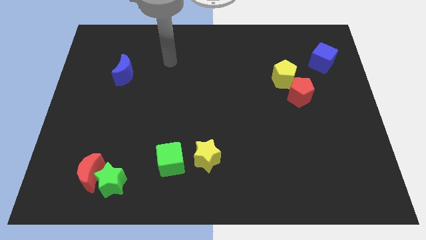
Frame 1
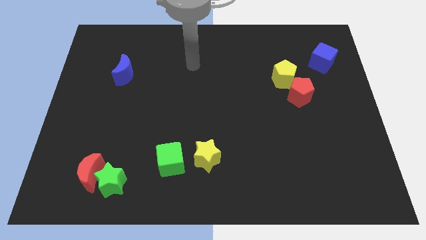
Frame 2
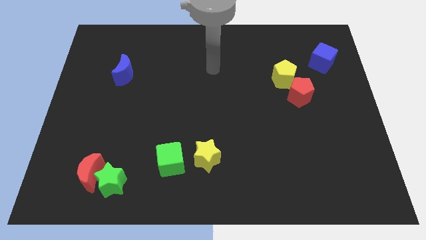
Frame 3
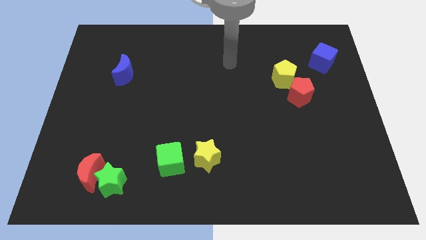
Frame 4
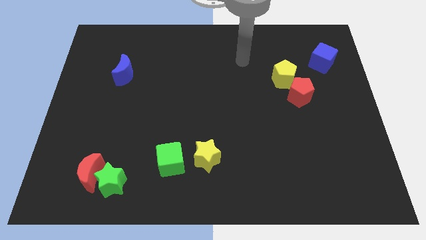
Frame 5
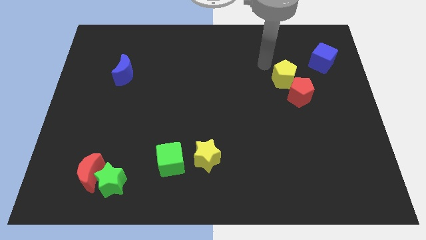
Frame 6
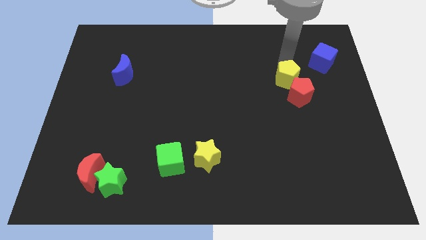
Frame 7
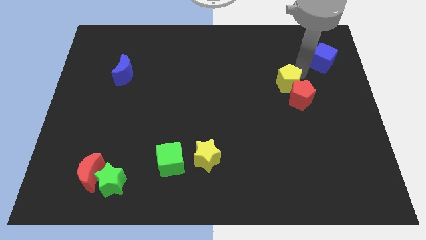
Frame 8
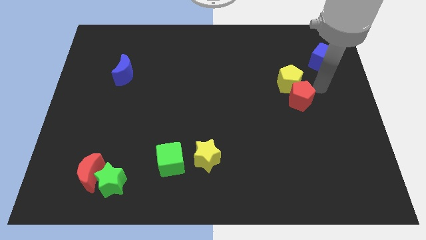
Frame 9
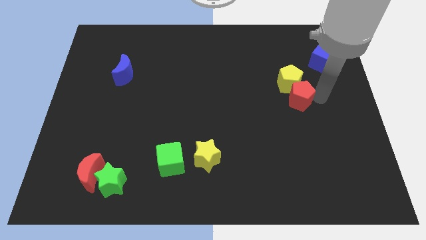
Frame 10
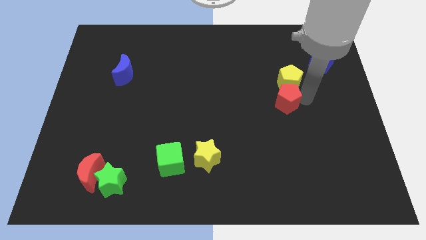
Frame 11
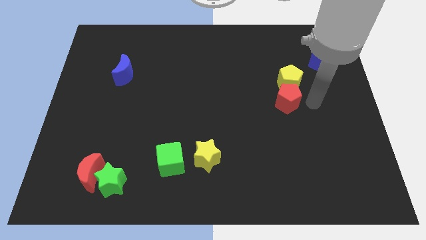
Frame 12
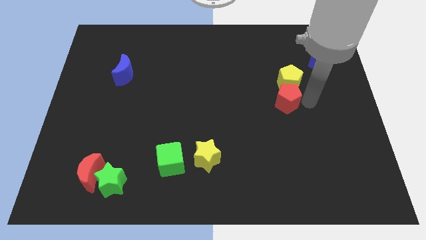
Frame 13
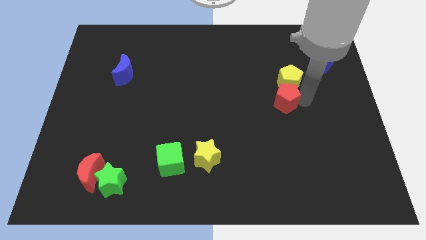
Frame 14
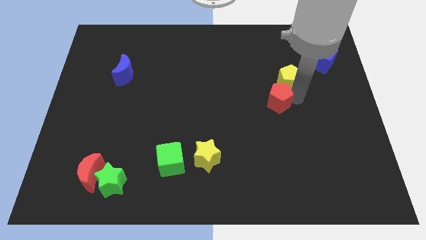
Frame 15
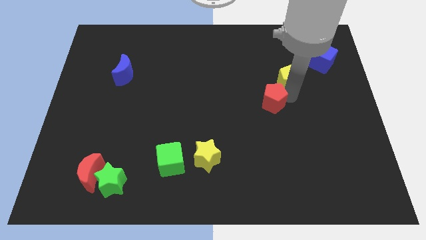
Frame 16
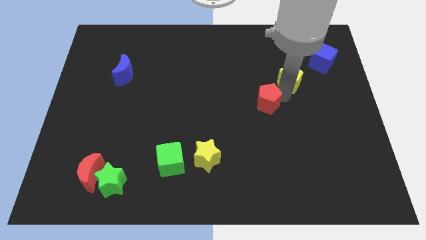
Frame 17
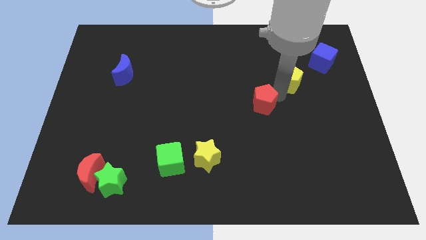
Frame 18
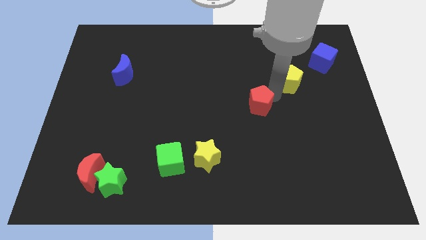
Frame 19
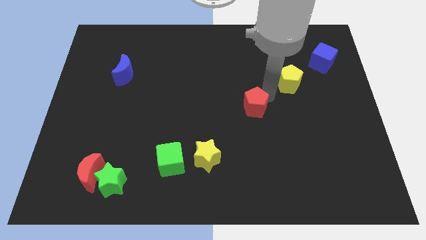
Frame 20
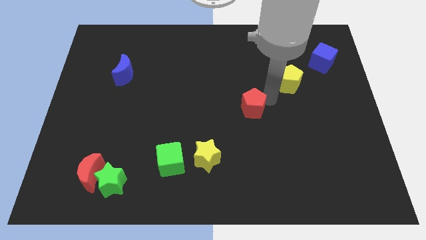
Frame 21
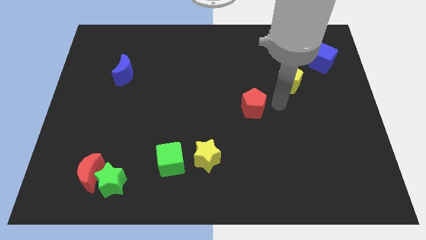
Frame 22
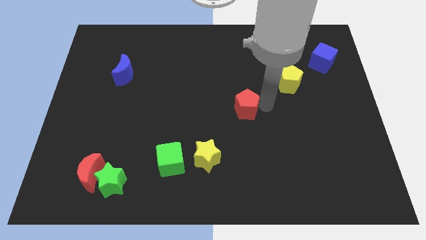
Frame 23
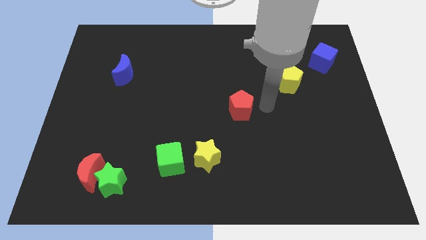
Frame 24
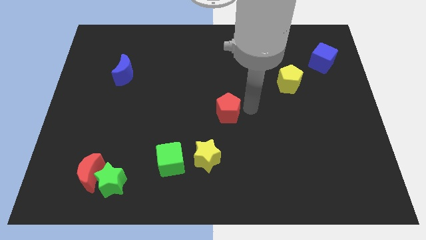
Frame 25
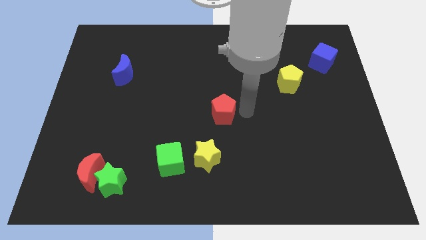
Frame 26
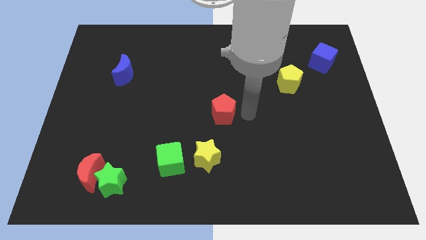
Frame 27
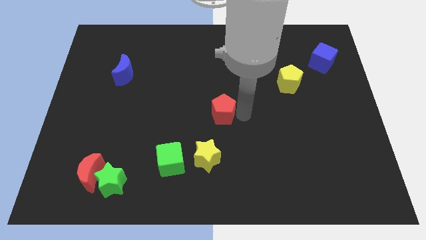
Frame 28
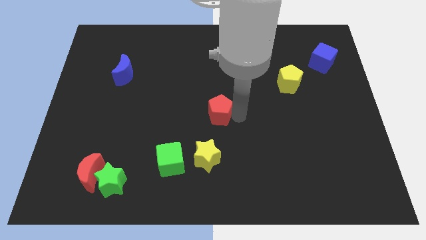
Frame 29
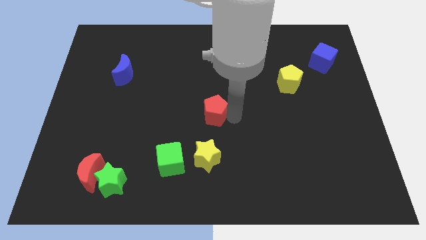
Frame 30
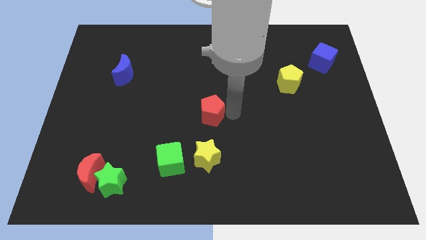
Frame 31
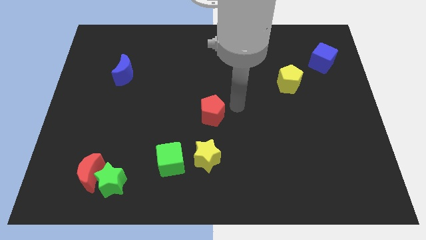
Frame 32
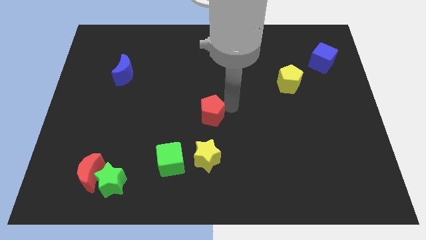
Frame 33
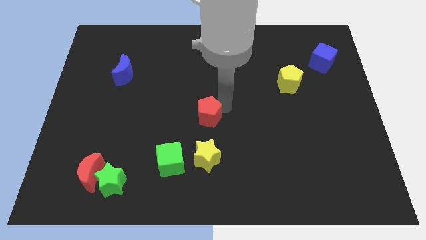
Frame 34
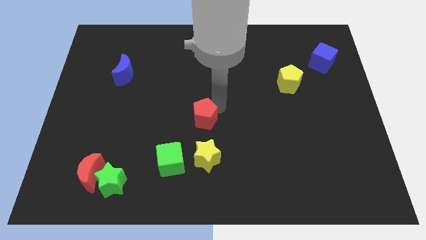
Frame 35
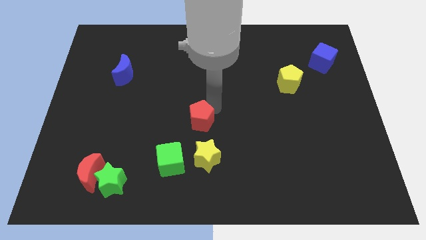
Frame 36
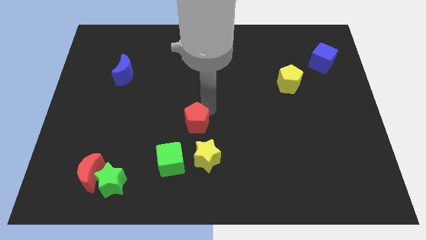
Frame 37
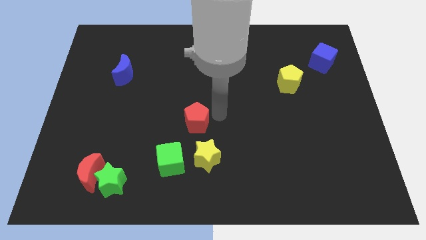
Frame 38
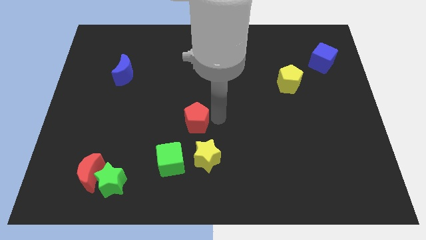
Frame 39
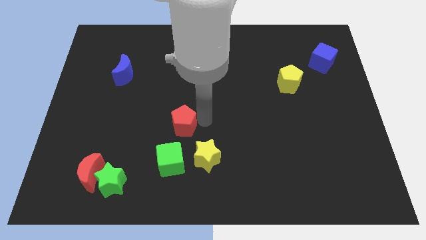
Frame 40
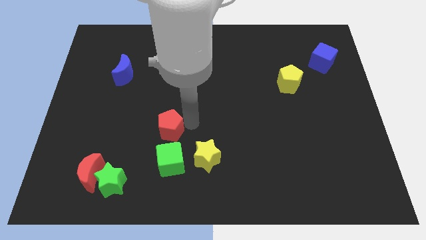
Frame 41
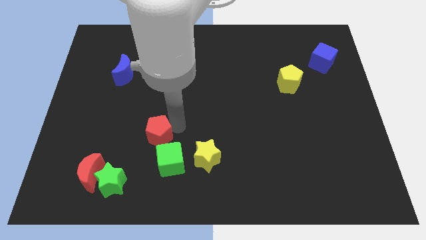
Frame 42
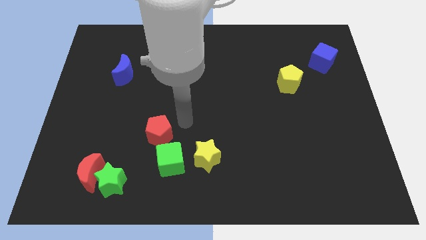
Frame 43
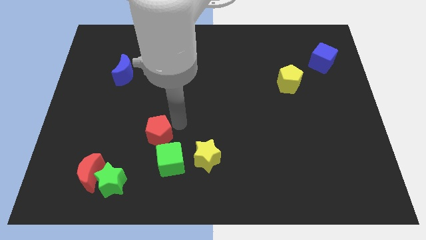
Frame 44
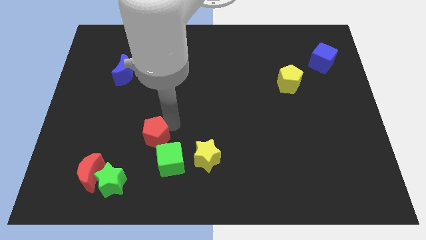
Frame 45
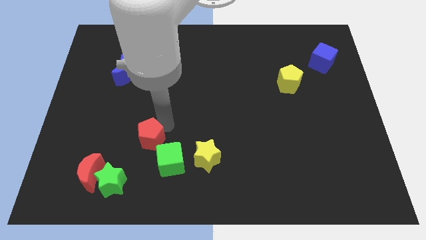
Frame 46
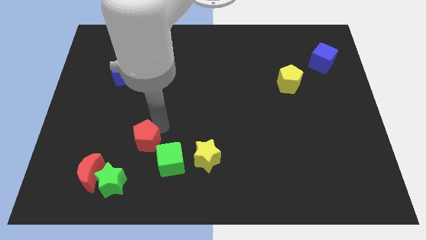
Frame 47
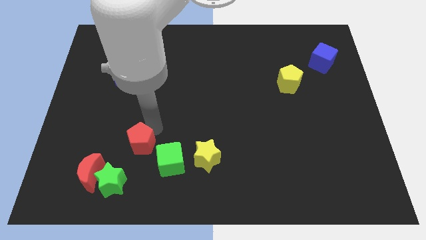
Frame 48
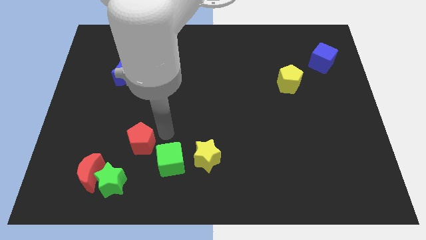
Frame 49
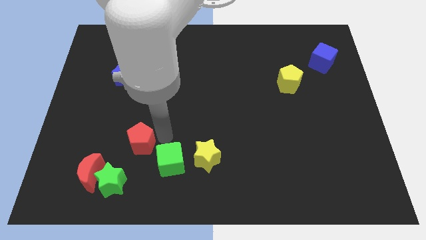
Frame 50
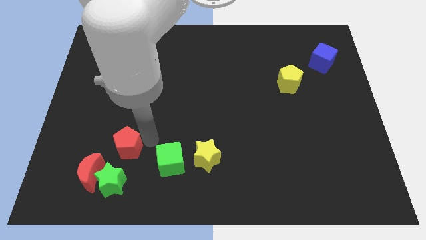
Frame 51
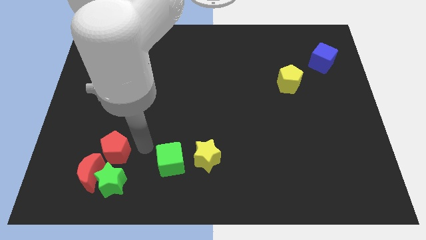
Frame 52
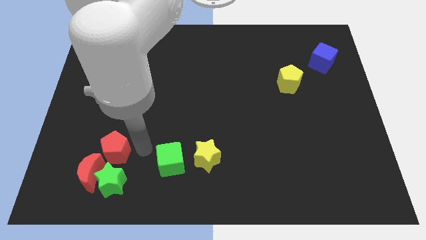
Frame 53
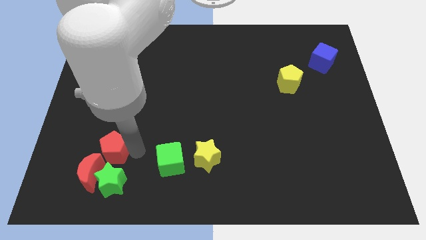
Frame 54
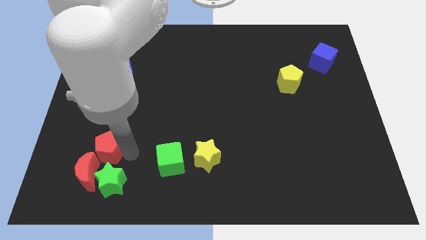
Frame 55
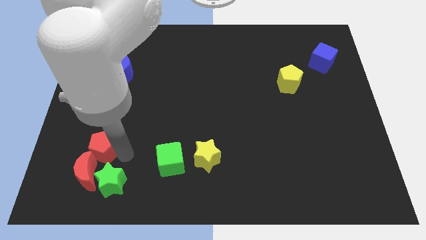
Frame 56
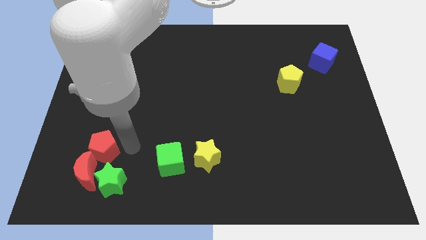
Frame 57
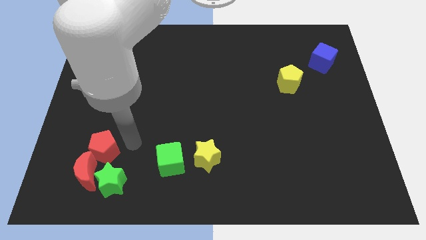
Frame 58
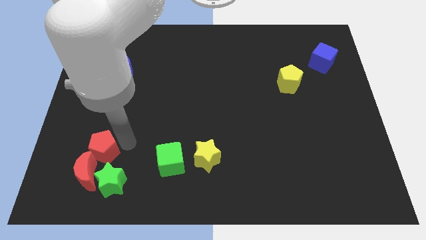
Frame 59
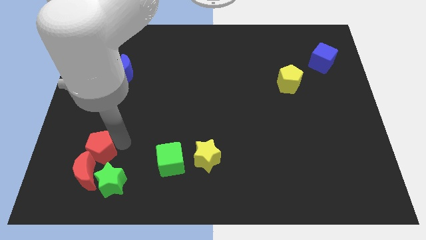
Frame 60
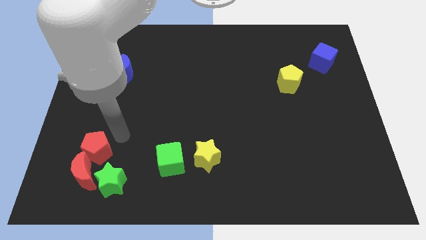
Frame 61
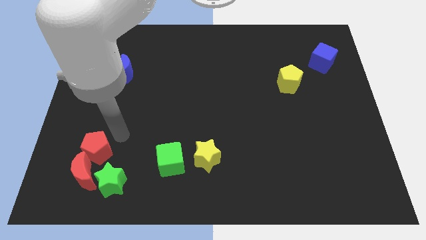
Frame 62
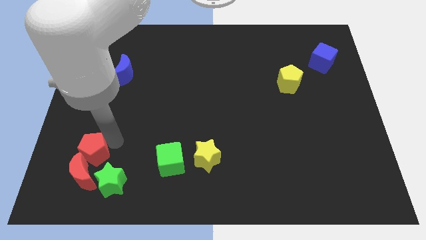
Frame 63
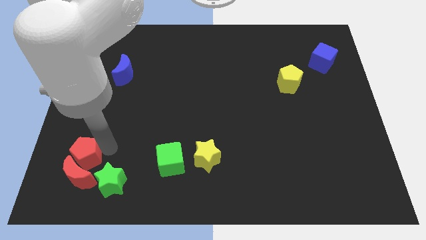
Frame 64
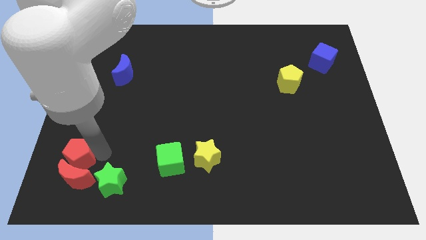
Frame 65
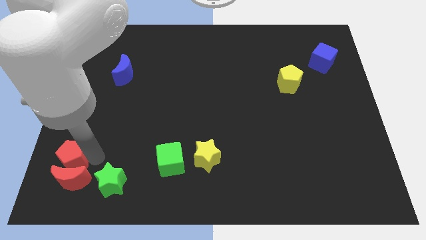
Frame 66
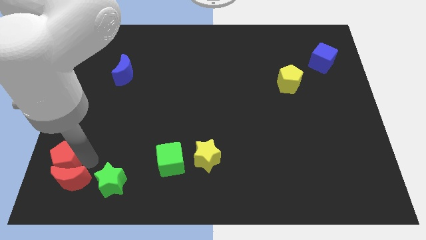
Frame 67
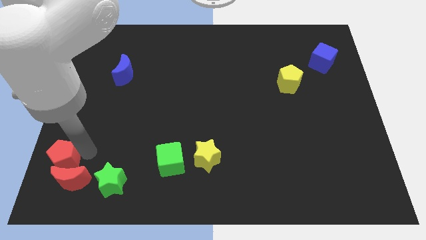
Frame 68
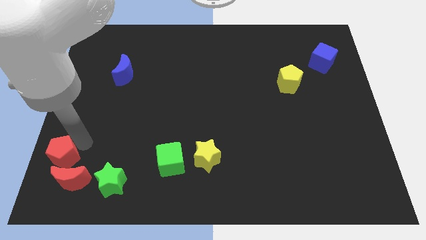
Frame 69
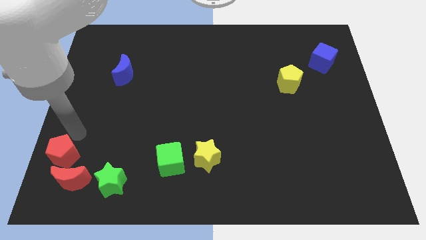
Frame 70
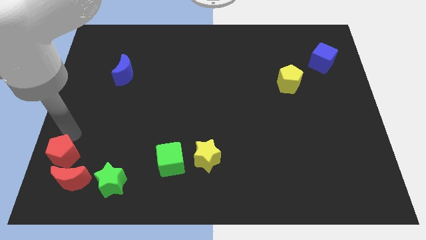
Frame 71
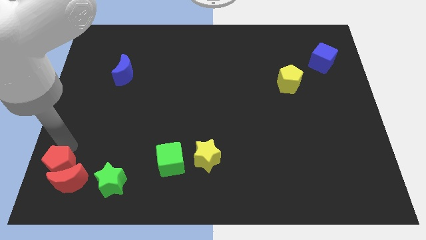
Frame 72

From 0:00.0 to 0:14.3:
move the red pentagon to the lower left corner

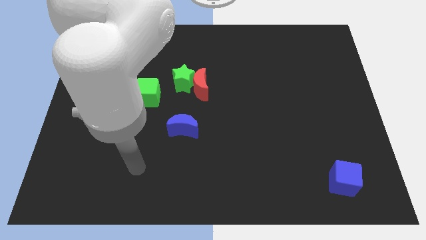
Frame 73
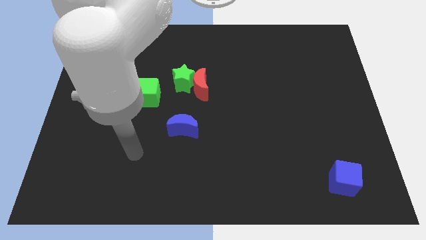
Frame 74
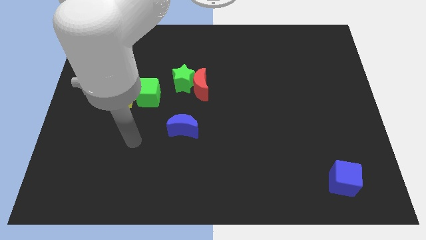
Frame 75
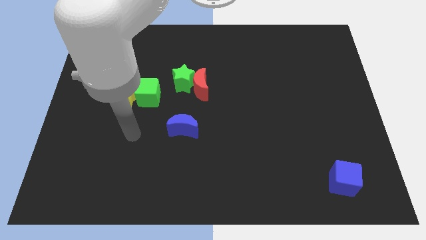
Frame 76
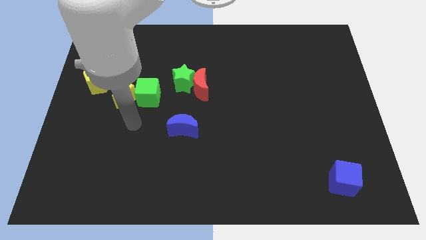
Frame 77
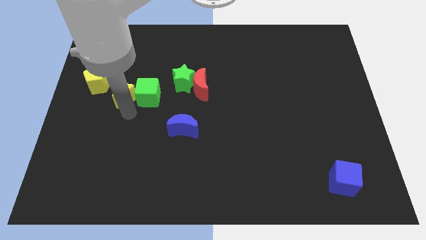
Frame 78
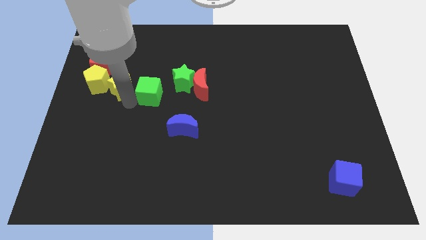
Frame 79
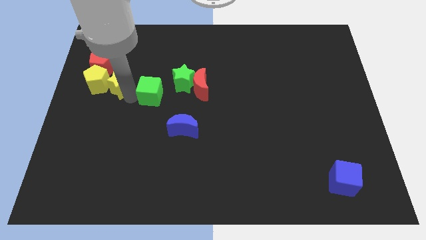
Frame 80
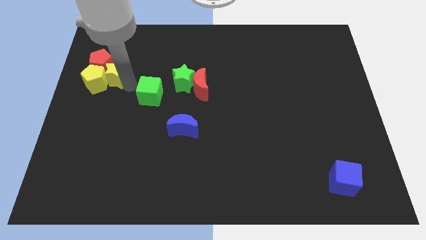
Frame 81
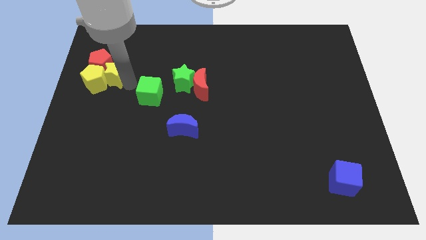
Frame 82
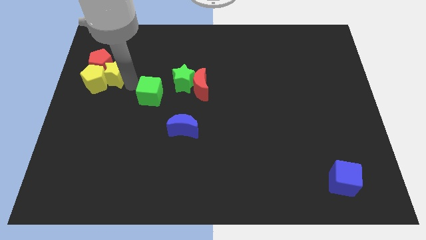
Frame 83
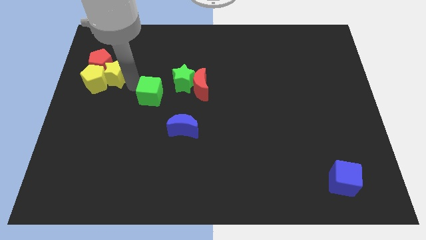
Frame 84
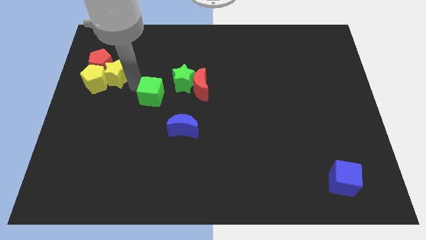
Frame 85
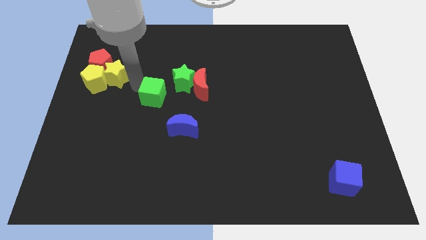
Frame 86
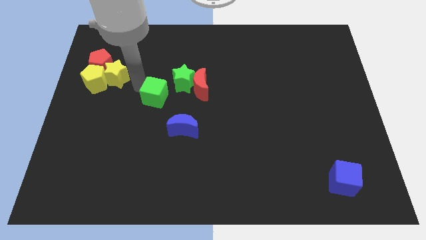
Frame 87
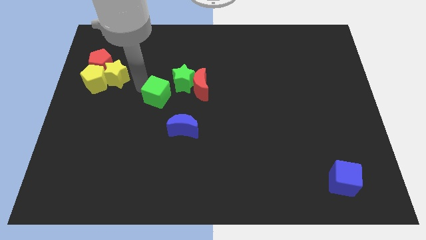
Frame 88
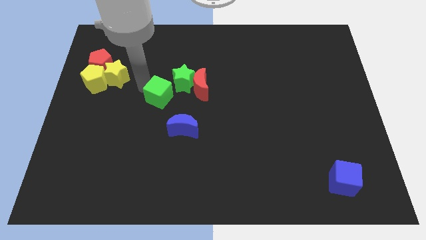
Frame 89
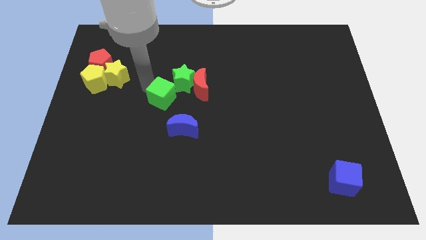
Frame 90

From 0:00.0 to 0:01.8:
put the green cube to the middle
